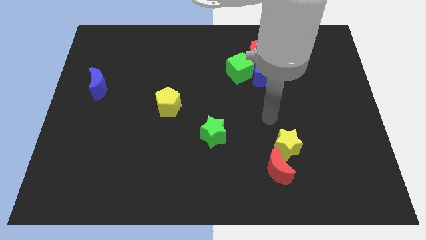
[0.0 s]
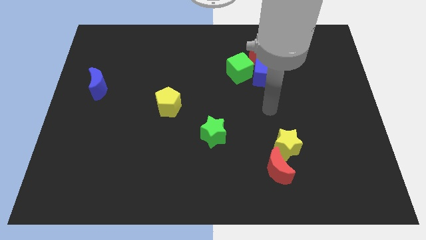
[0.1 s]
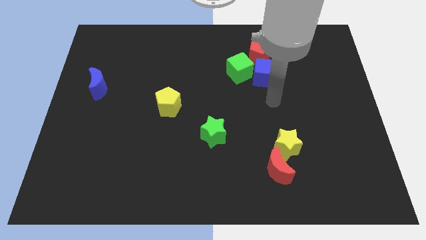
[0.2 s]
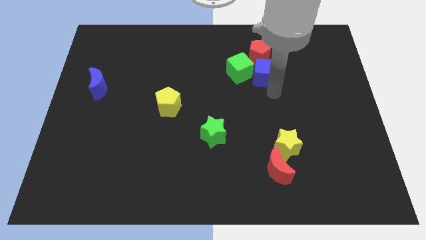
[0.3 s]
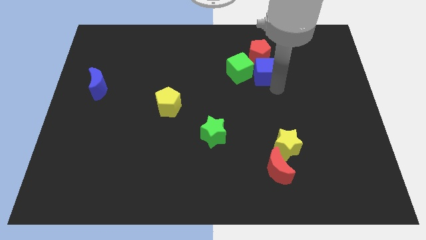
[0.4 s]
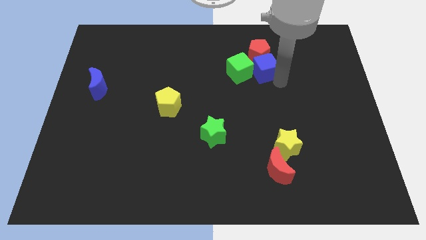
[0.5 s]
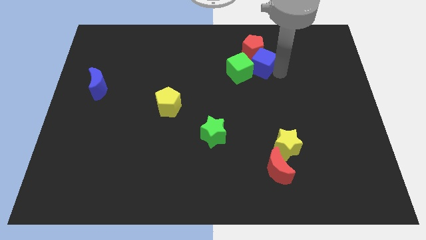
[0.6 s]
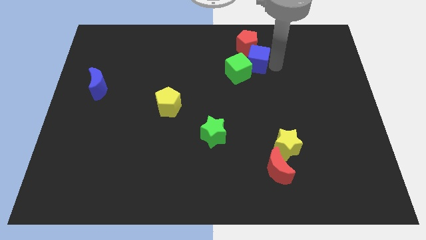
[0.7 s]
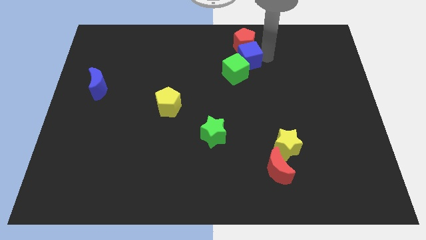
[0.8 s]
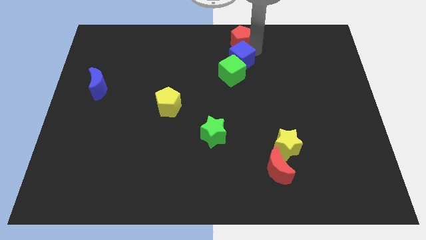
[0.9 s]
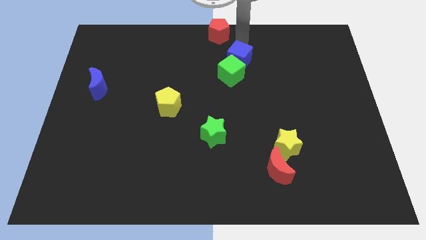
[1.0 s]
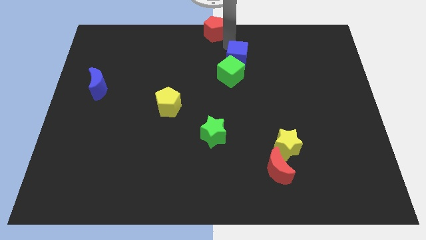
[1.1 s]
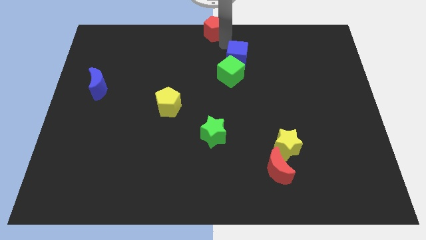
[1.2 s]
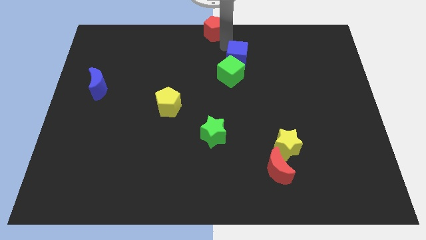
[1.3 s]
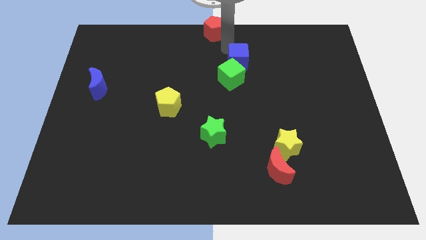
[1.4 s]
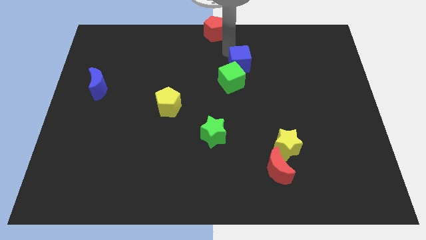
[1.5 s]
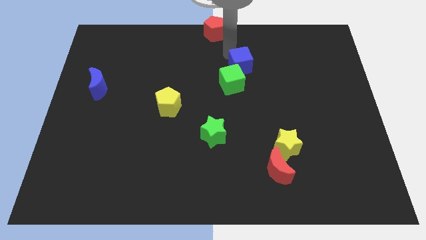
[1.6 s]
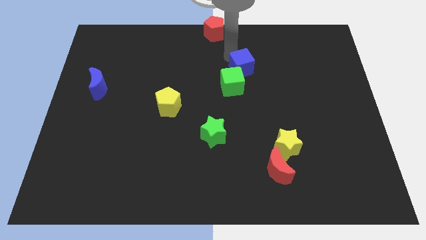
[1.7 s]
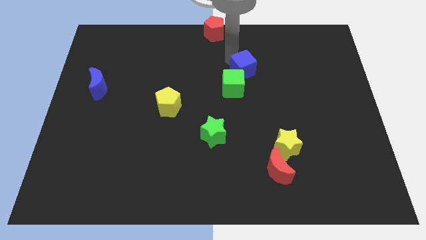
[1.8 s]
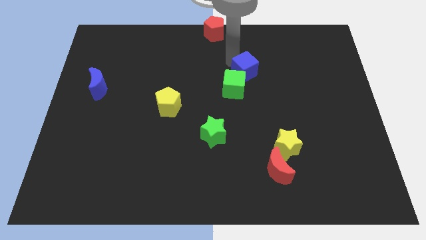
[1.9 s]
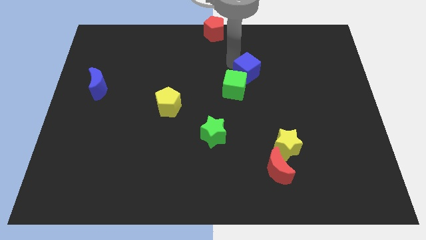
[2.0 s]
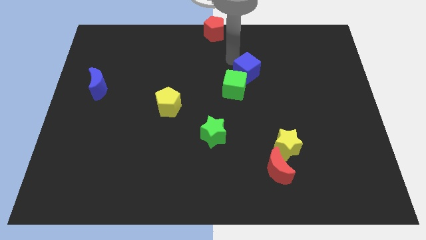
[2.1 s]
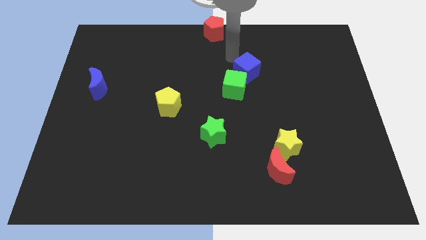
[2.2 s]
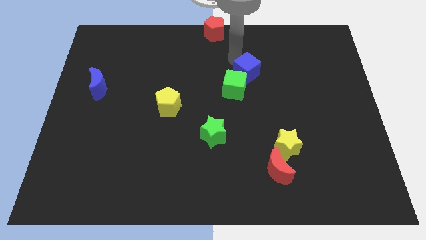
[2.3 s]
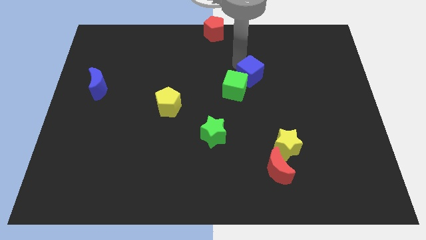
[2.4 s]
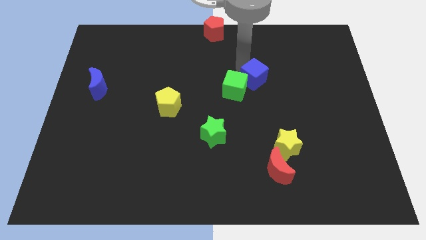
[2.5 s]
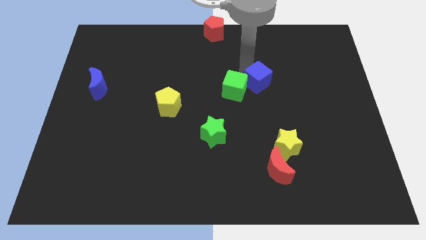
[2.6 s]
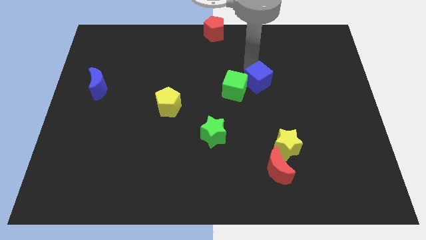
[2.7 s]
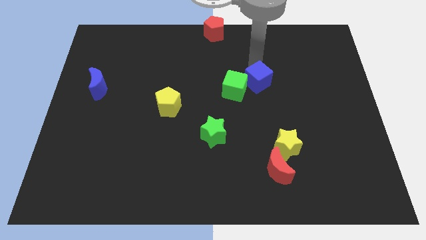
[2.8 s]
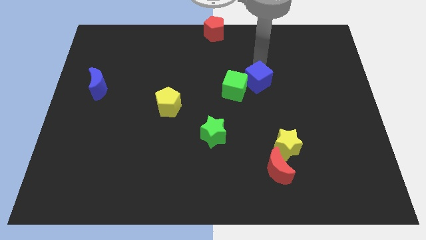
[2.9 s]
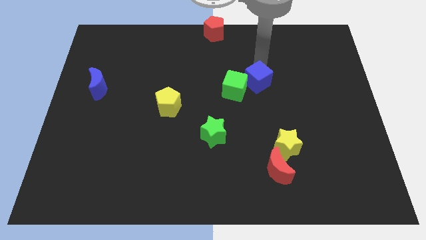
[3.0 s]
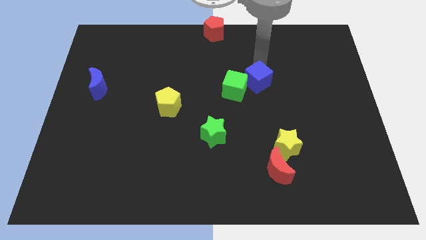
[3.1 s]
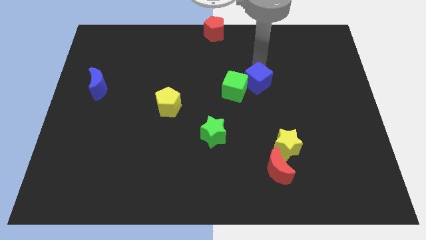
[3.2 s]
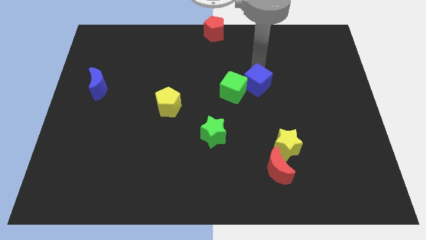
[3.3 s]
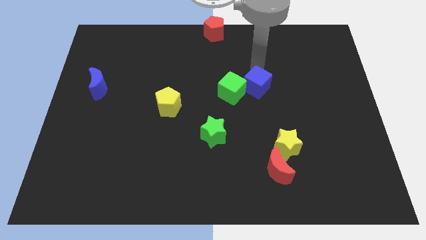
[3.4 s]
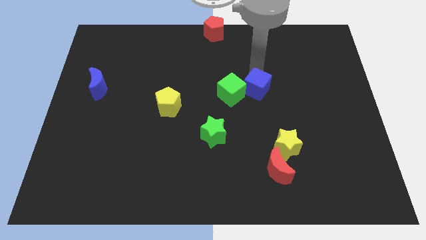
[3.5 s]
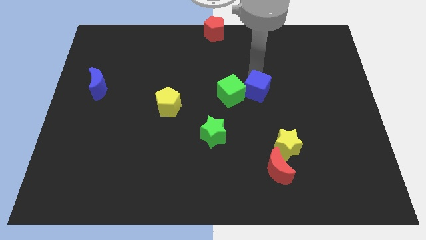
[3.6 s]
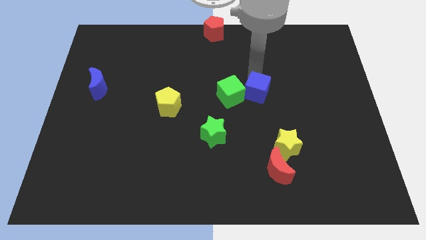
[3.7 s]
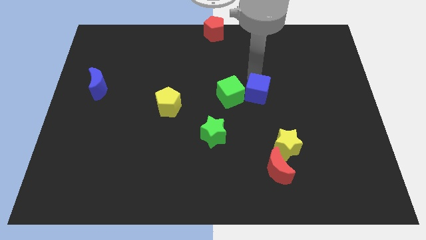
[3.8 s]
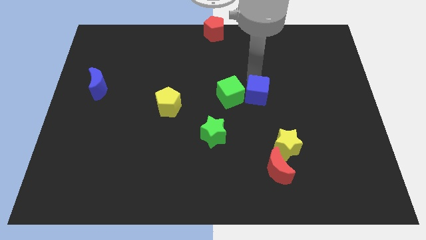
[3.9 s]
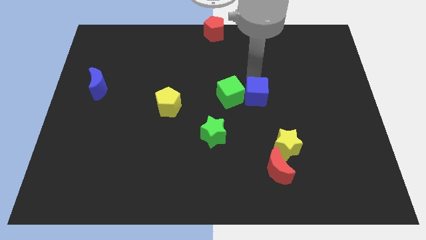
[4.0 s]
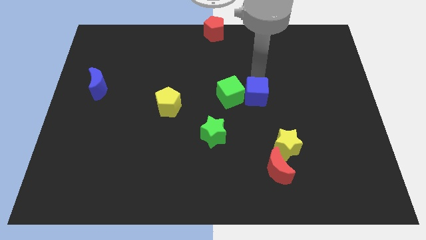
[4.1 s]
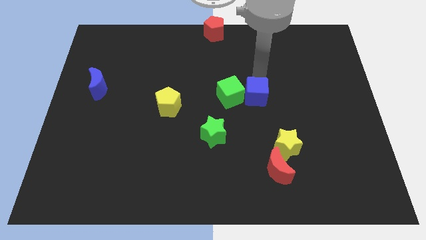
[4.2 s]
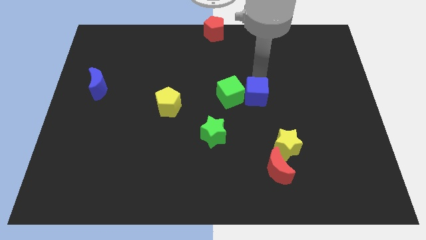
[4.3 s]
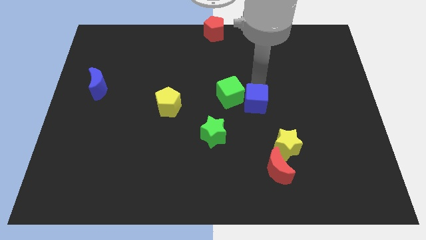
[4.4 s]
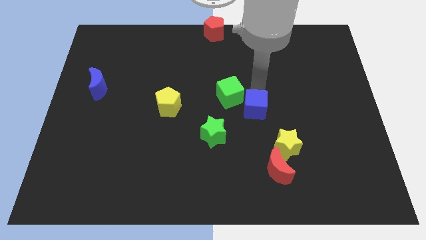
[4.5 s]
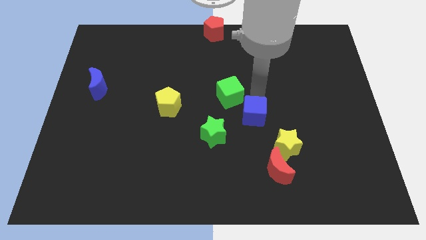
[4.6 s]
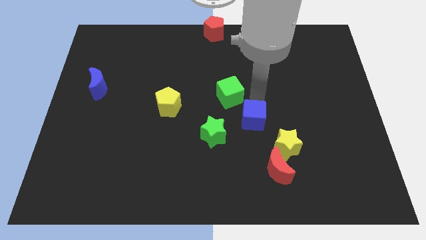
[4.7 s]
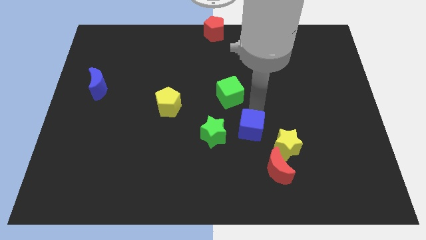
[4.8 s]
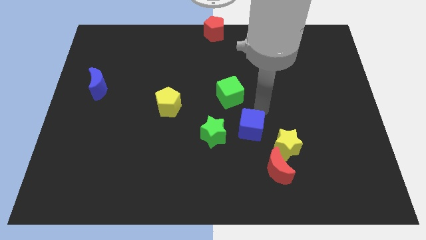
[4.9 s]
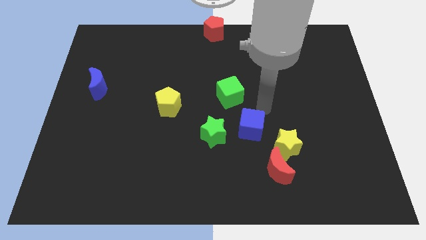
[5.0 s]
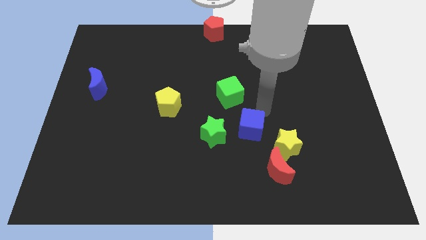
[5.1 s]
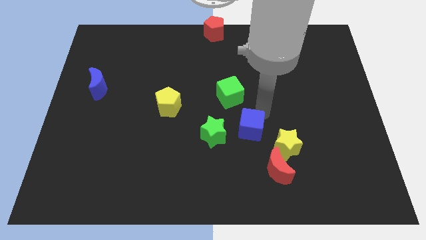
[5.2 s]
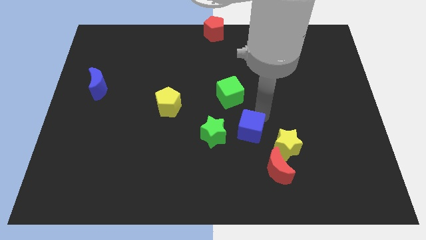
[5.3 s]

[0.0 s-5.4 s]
move the blue cube just left of the yellow star
